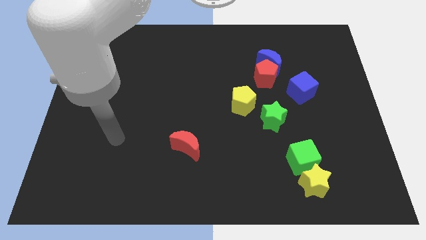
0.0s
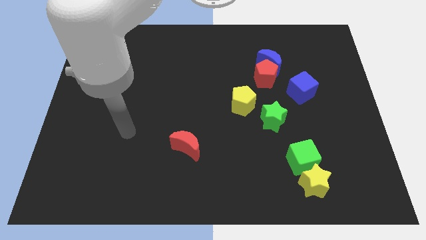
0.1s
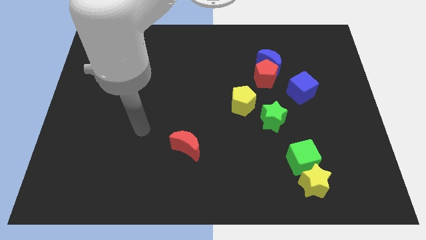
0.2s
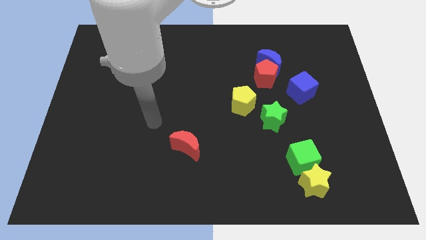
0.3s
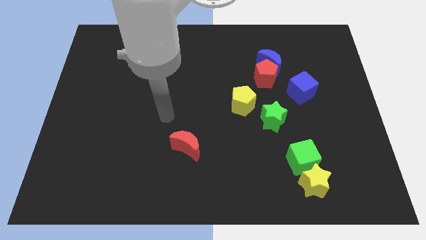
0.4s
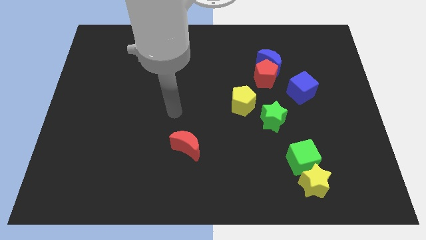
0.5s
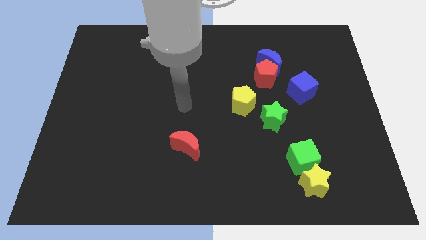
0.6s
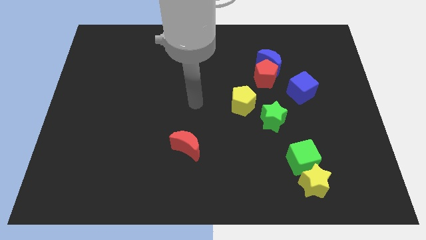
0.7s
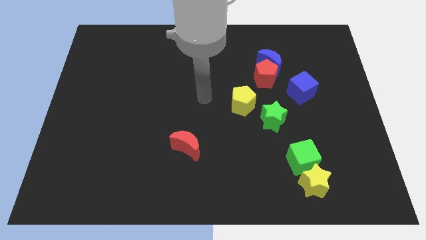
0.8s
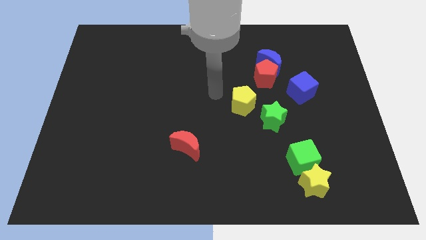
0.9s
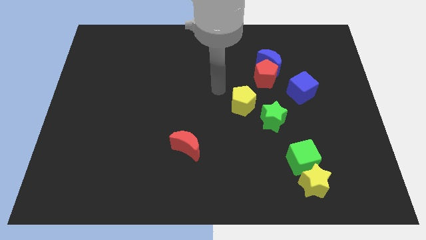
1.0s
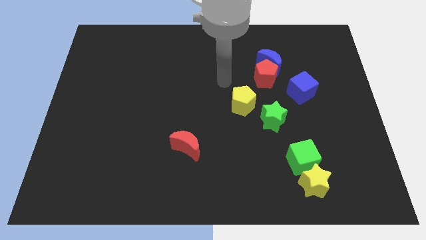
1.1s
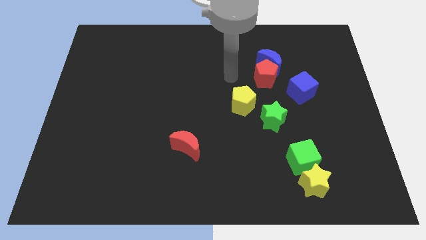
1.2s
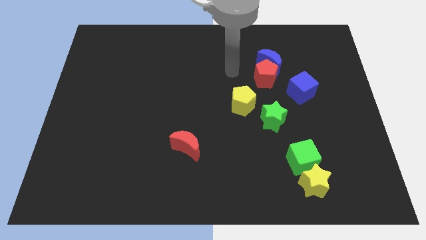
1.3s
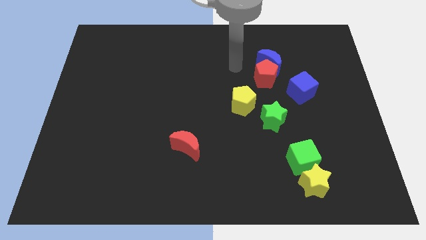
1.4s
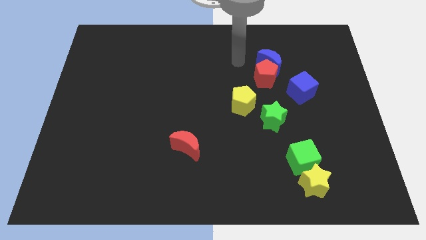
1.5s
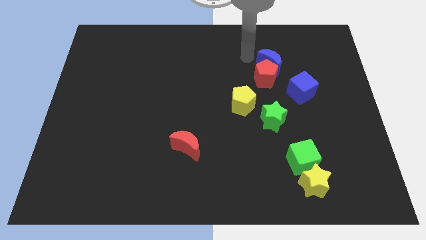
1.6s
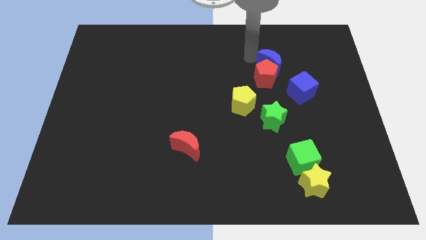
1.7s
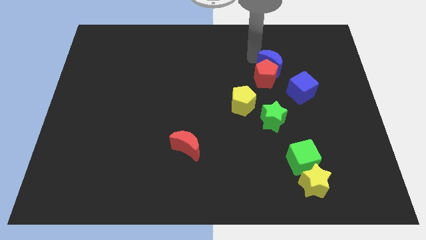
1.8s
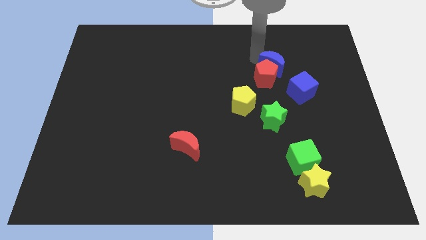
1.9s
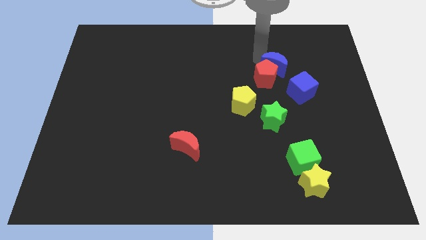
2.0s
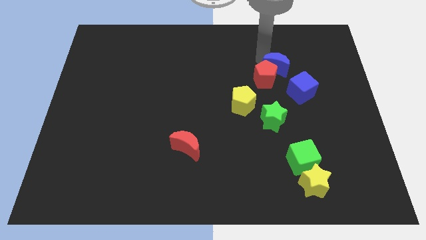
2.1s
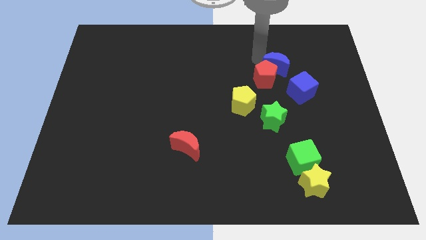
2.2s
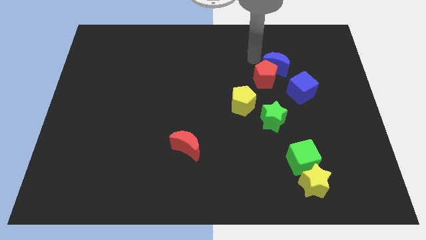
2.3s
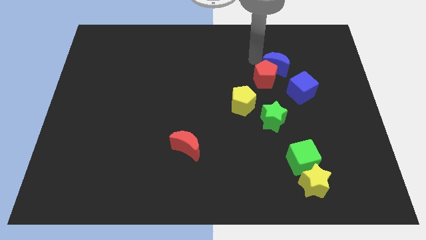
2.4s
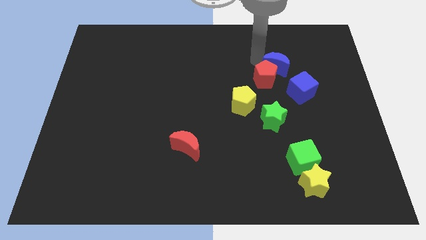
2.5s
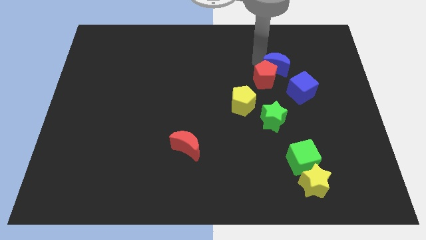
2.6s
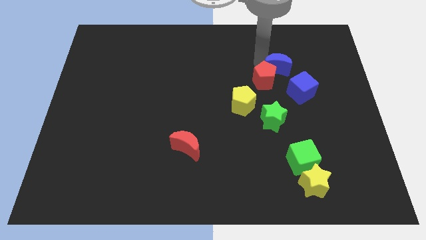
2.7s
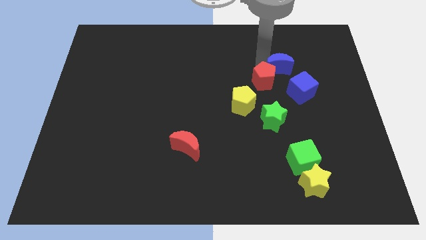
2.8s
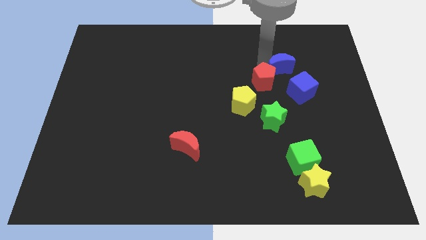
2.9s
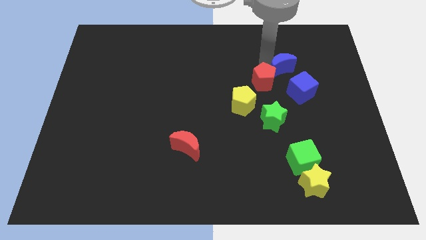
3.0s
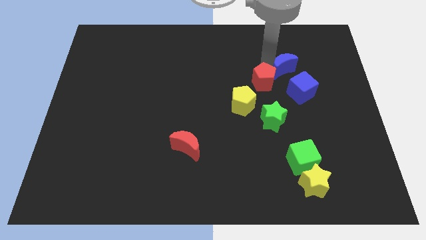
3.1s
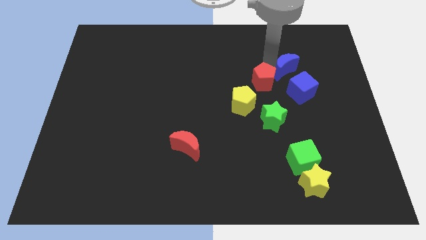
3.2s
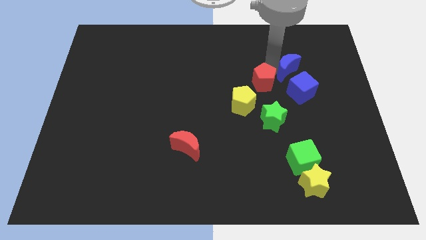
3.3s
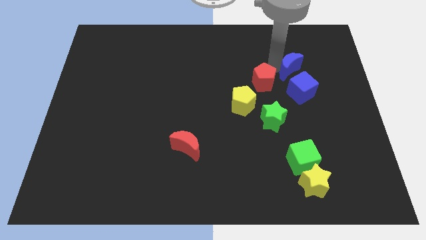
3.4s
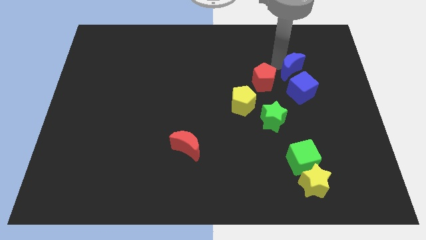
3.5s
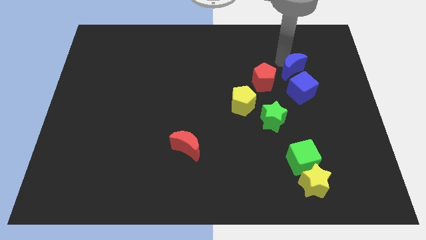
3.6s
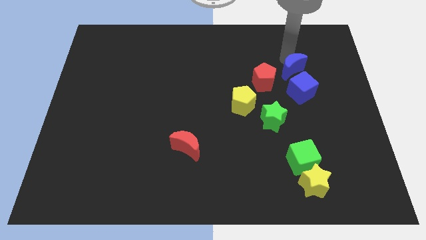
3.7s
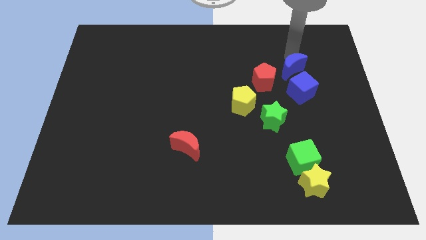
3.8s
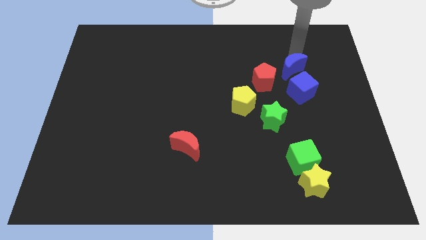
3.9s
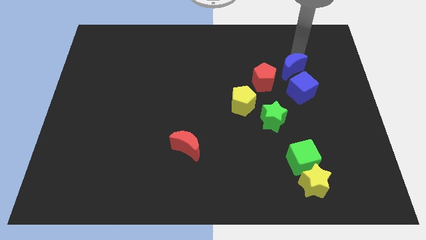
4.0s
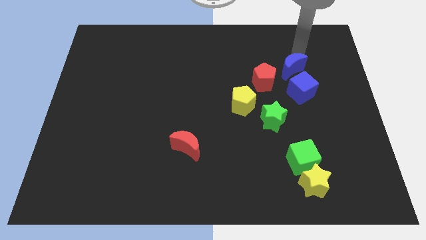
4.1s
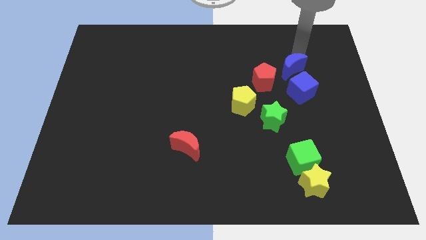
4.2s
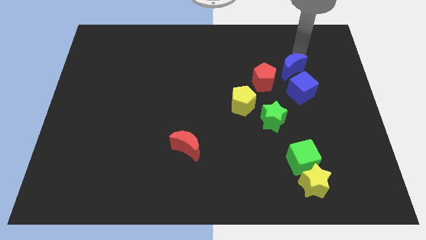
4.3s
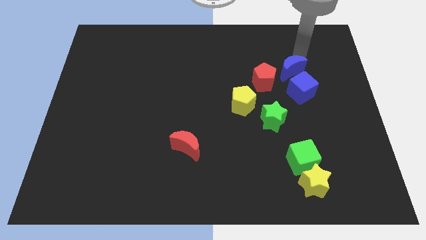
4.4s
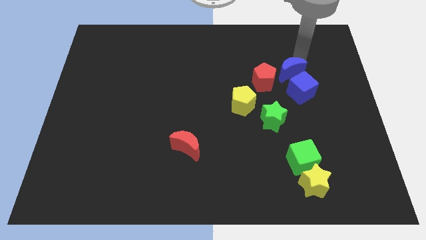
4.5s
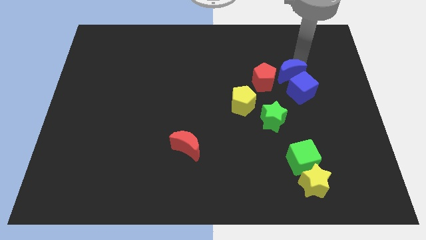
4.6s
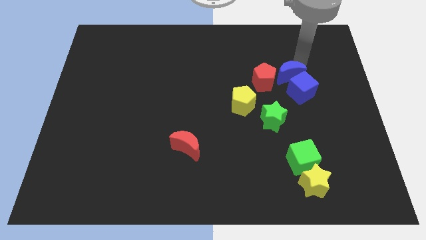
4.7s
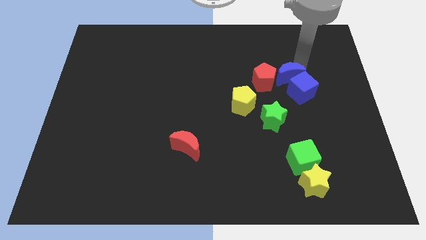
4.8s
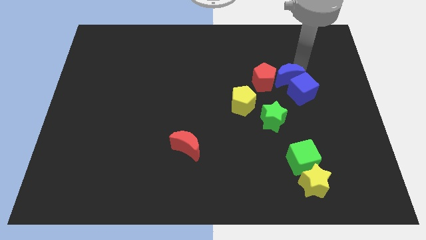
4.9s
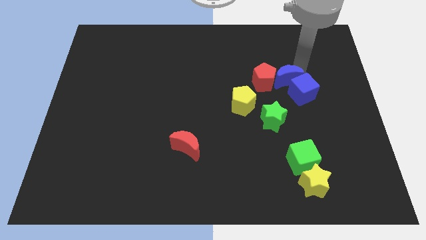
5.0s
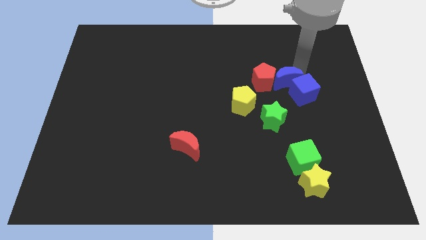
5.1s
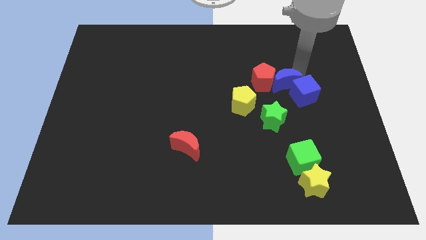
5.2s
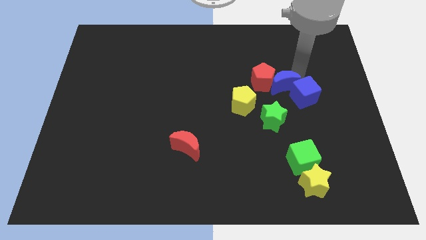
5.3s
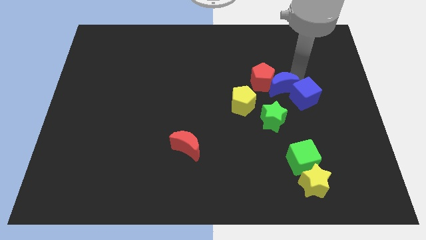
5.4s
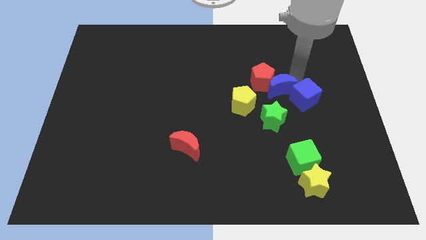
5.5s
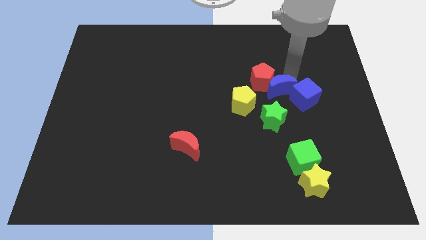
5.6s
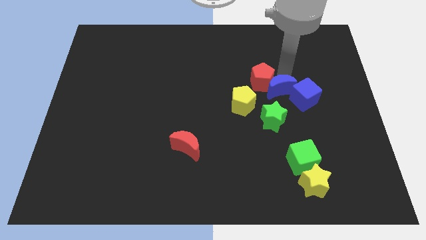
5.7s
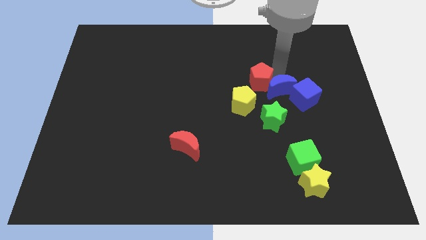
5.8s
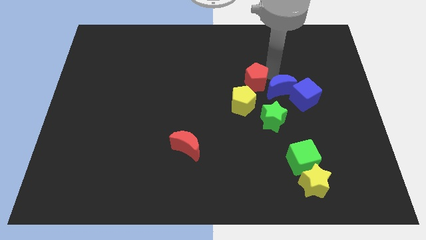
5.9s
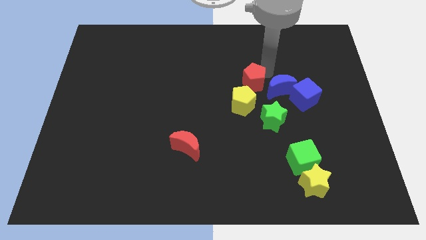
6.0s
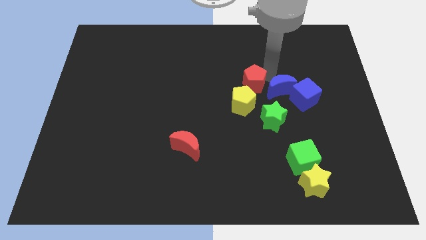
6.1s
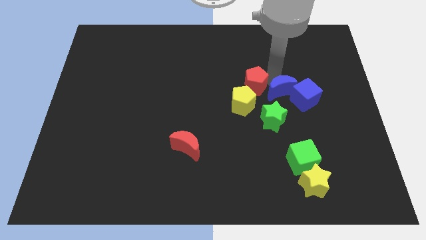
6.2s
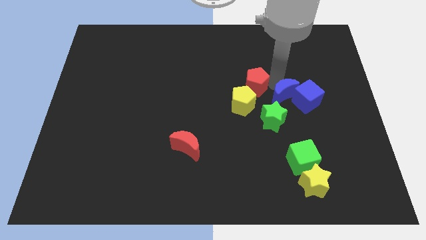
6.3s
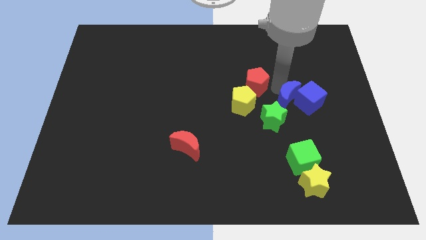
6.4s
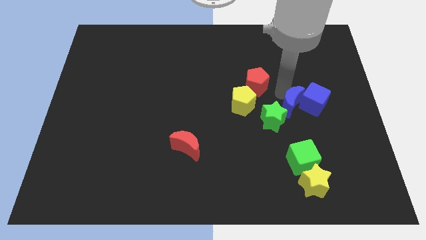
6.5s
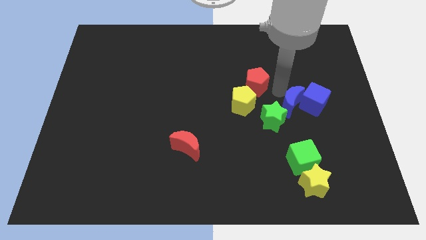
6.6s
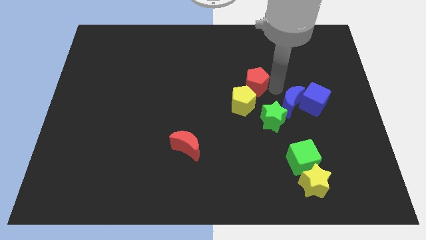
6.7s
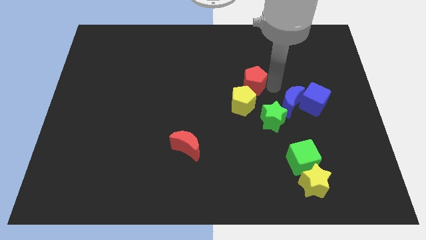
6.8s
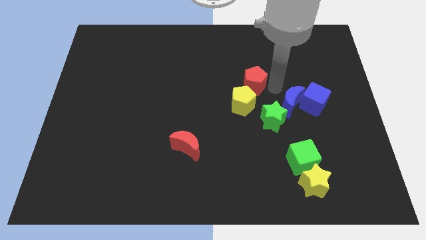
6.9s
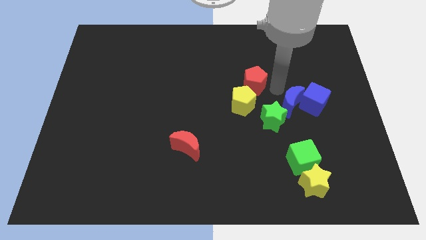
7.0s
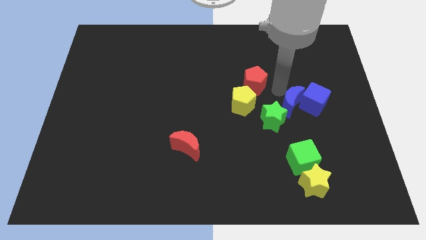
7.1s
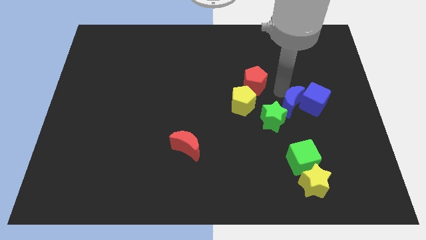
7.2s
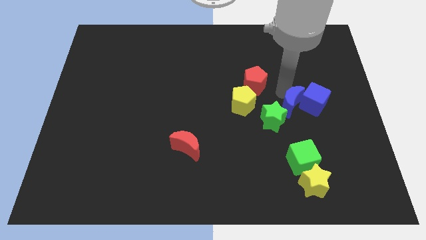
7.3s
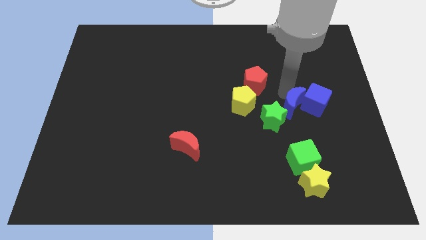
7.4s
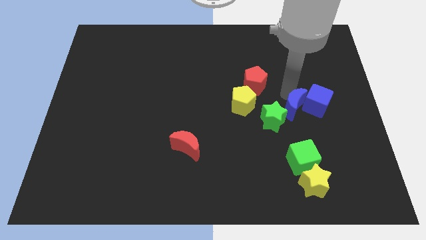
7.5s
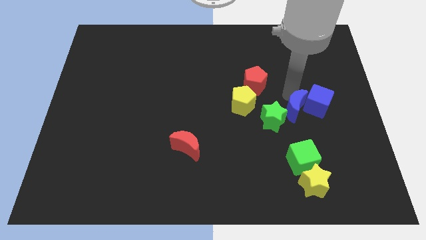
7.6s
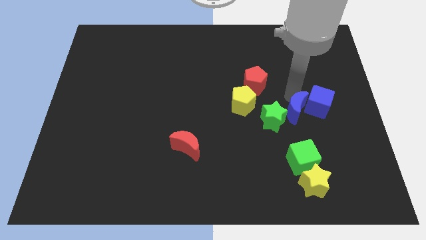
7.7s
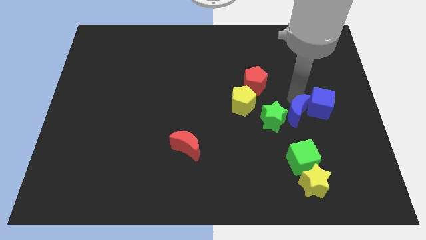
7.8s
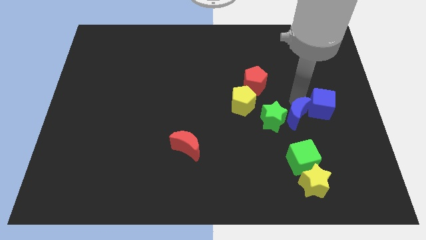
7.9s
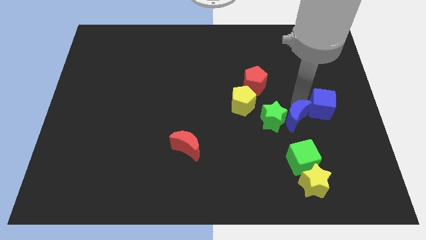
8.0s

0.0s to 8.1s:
slide the blue moon to the bottom right of the green star
